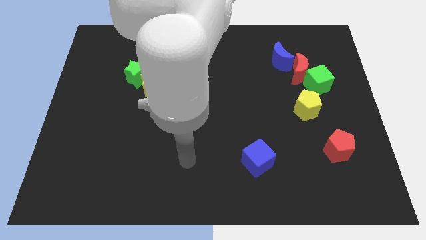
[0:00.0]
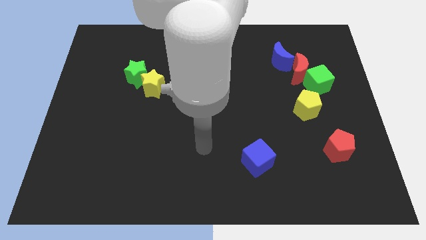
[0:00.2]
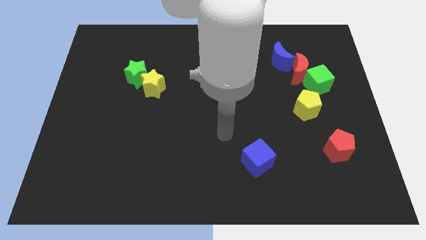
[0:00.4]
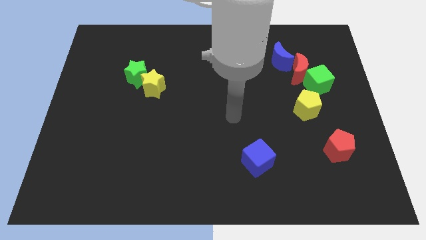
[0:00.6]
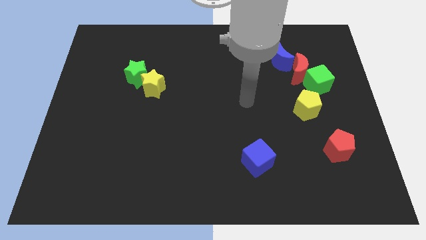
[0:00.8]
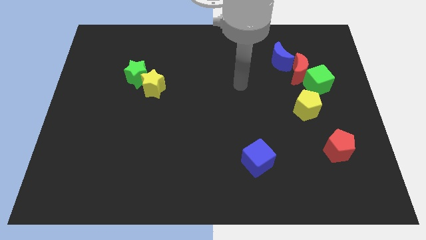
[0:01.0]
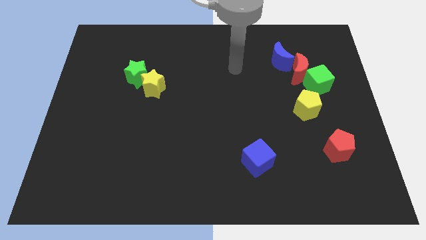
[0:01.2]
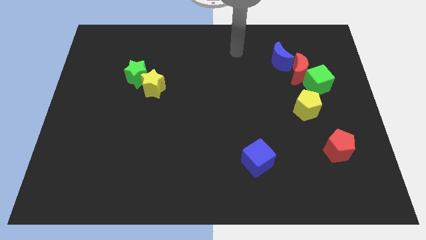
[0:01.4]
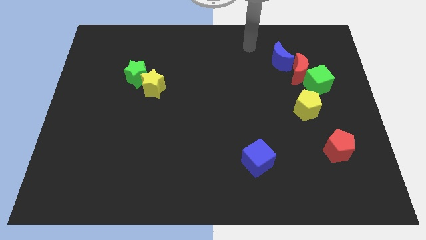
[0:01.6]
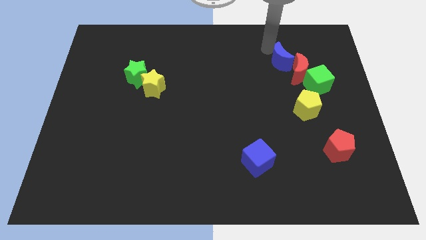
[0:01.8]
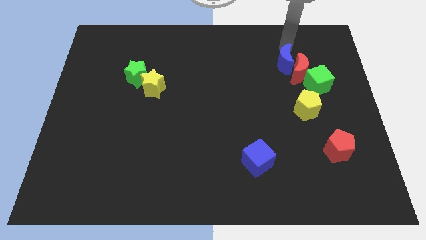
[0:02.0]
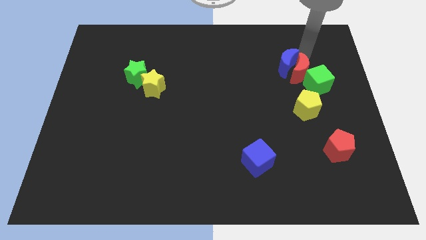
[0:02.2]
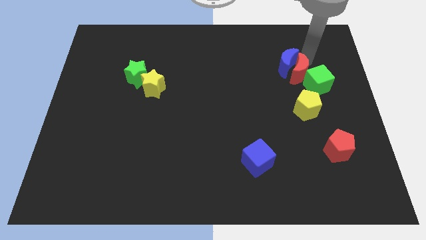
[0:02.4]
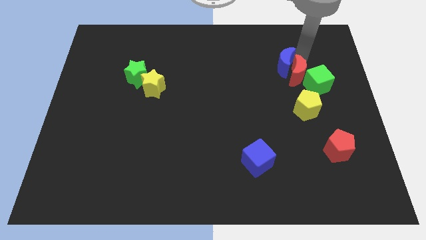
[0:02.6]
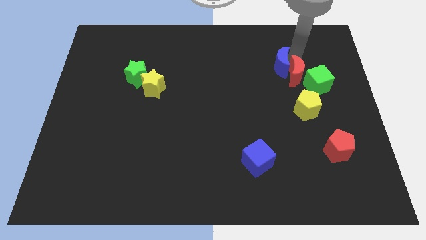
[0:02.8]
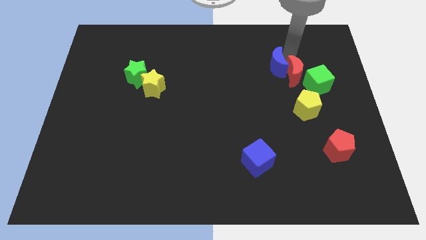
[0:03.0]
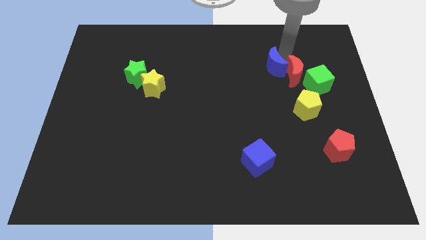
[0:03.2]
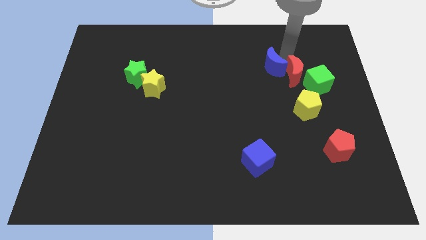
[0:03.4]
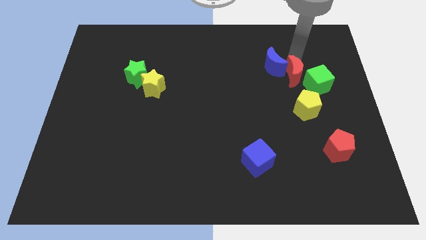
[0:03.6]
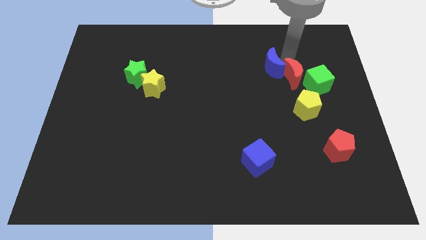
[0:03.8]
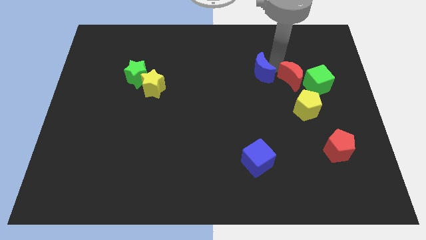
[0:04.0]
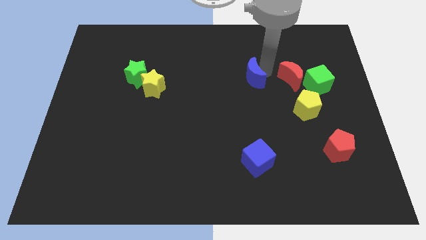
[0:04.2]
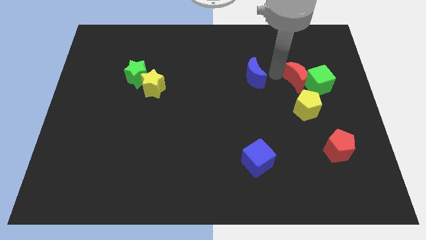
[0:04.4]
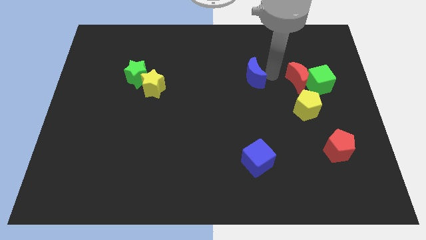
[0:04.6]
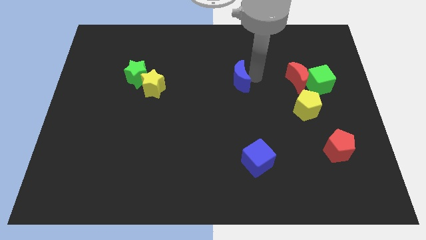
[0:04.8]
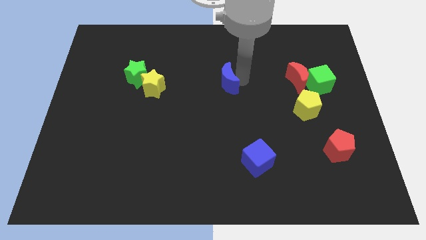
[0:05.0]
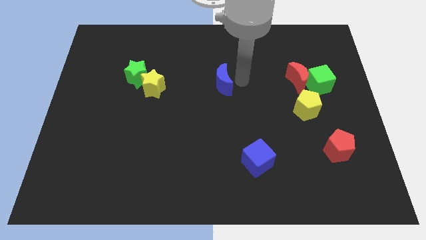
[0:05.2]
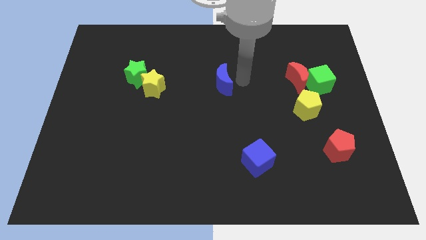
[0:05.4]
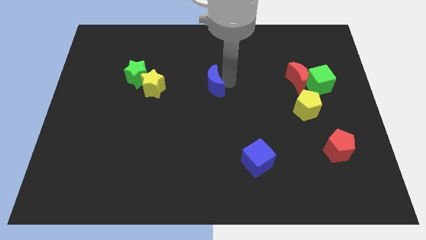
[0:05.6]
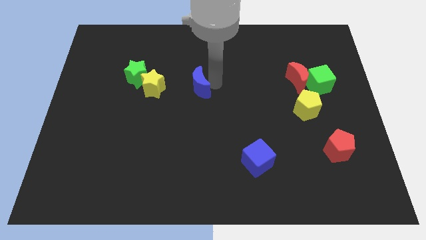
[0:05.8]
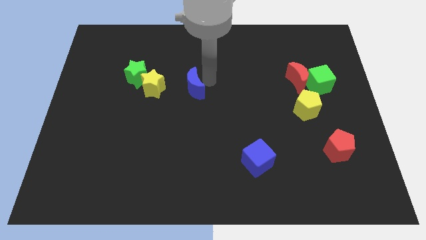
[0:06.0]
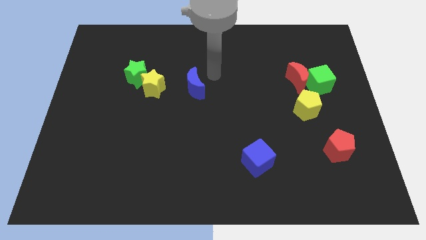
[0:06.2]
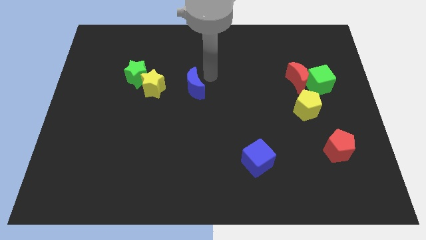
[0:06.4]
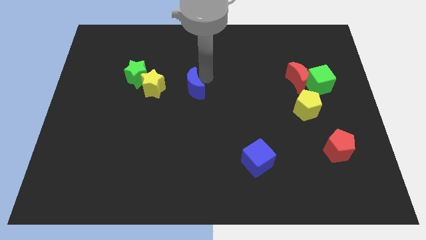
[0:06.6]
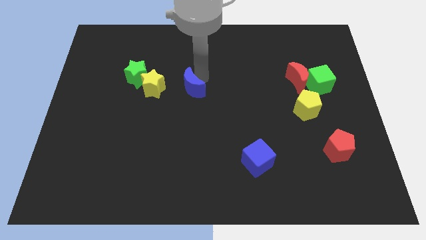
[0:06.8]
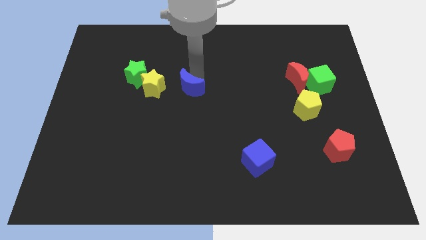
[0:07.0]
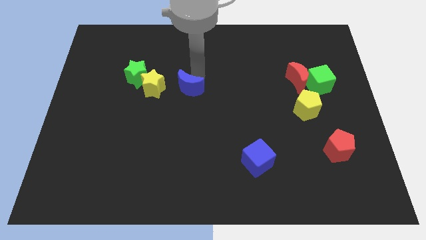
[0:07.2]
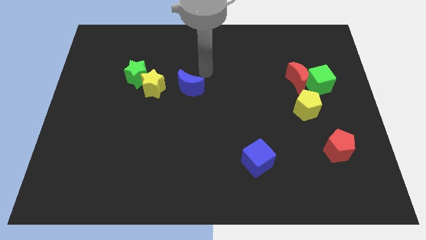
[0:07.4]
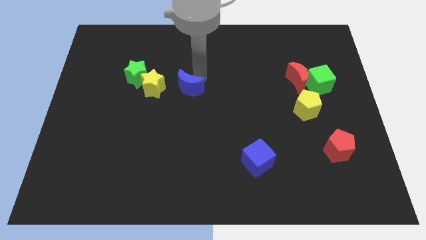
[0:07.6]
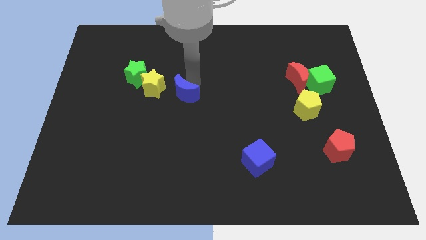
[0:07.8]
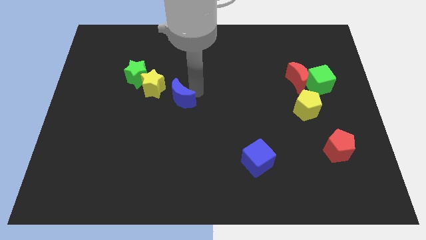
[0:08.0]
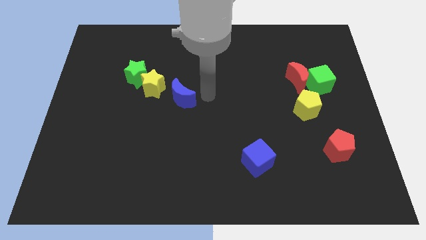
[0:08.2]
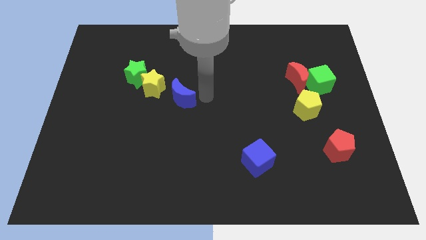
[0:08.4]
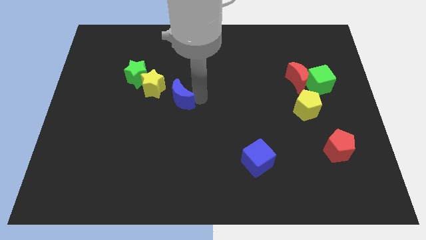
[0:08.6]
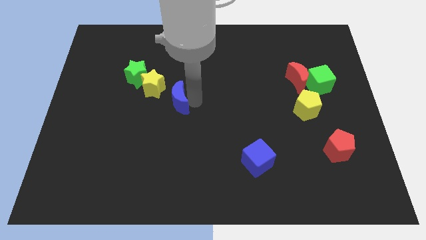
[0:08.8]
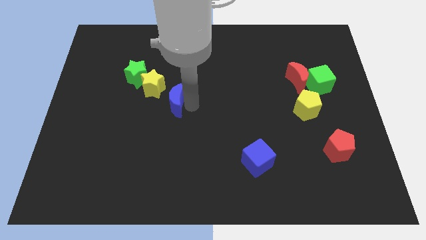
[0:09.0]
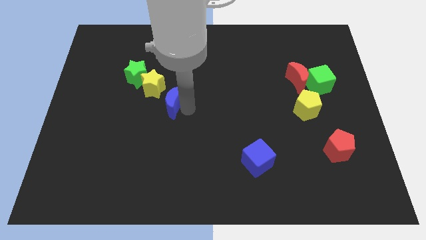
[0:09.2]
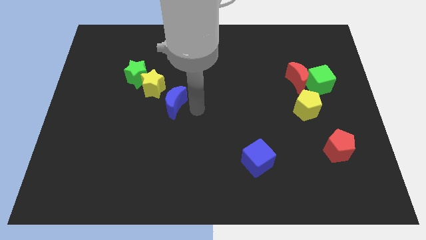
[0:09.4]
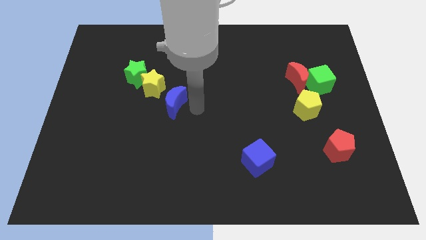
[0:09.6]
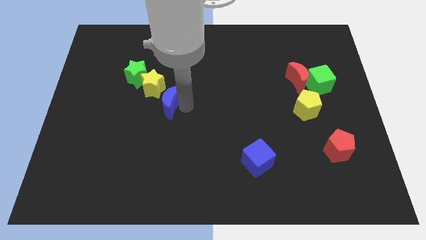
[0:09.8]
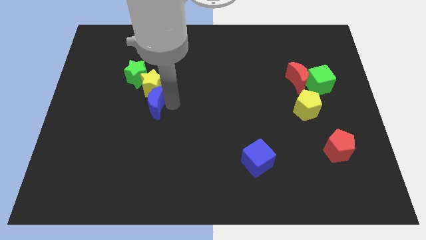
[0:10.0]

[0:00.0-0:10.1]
move the blue moon to the bottom left of the yellow star

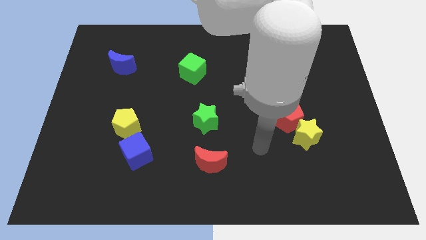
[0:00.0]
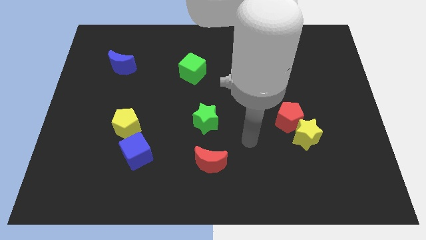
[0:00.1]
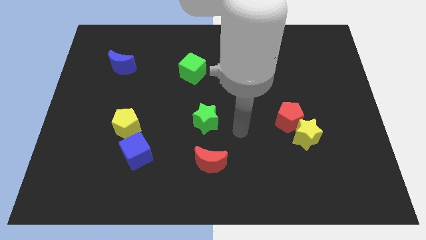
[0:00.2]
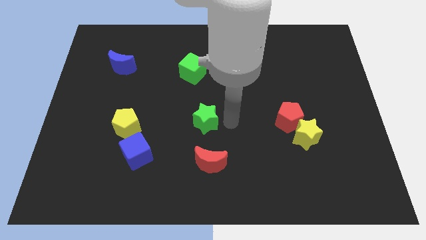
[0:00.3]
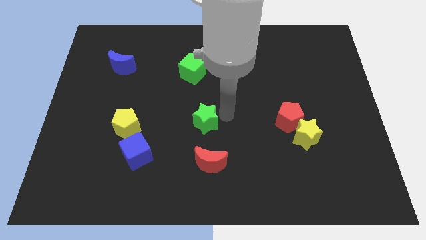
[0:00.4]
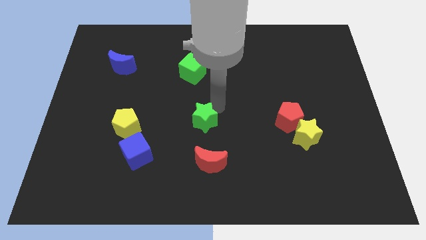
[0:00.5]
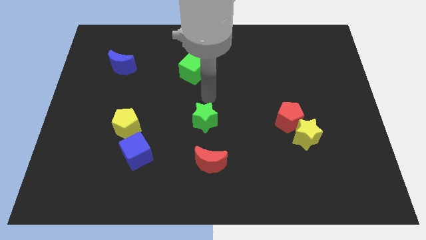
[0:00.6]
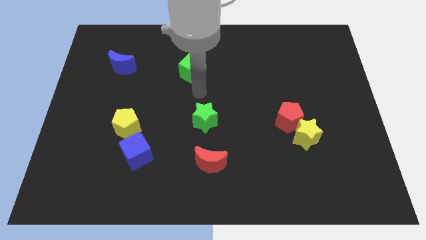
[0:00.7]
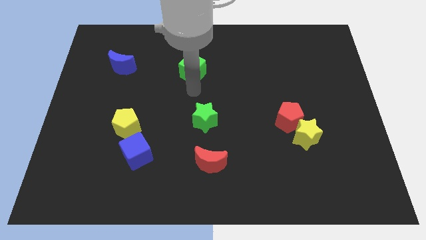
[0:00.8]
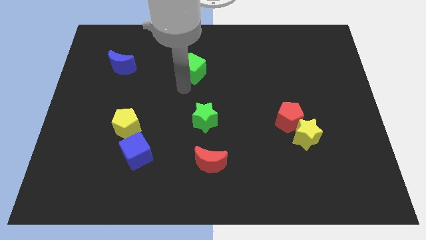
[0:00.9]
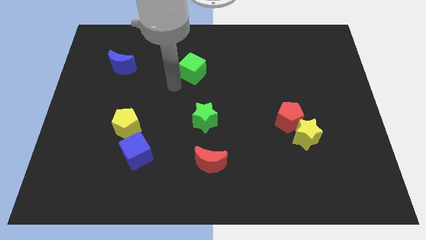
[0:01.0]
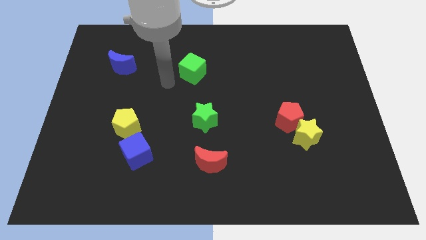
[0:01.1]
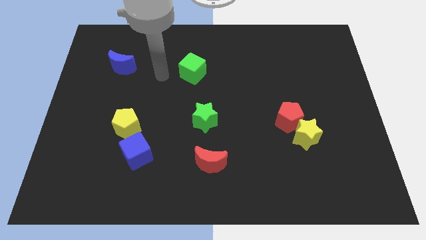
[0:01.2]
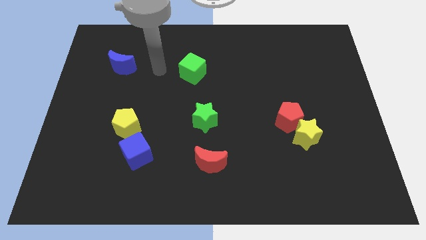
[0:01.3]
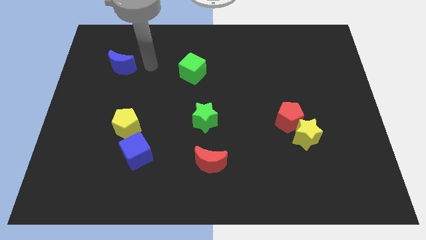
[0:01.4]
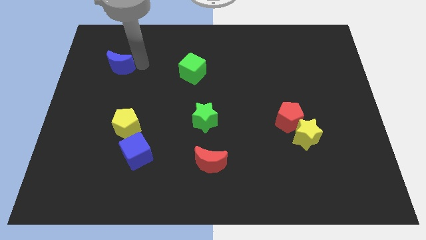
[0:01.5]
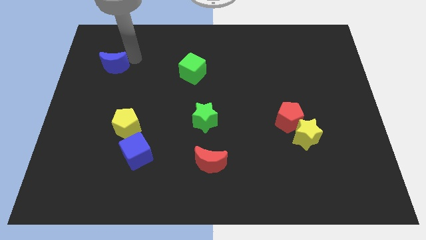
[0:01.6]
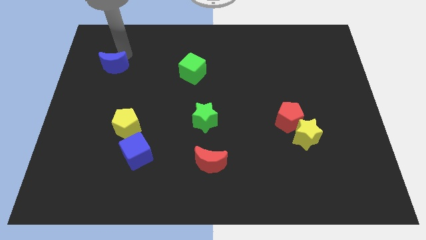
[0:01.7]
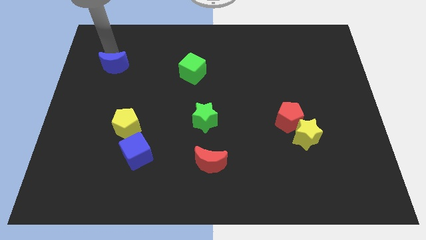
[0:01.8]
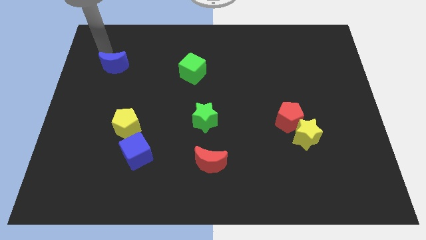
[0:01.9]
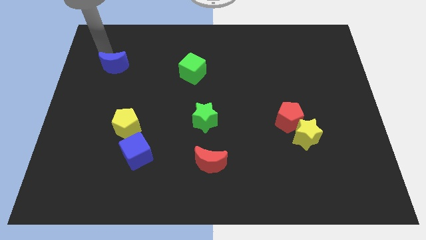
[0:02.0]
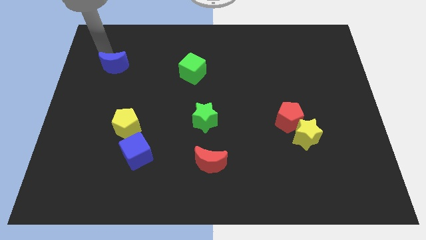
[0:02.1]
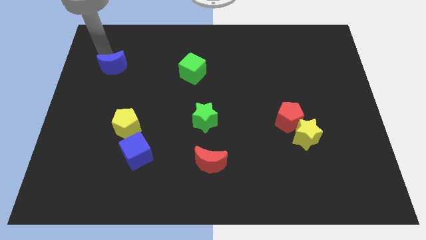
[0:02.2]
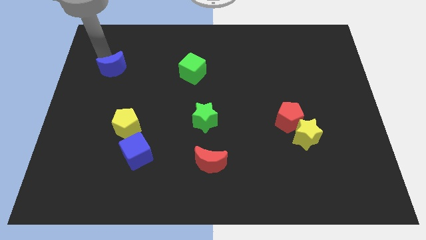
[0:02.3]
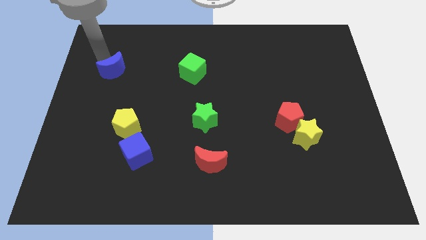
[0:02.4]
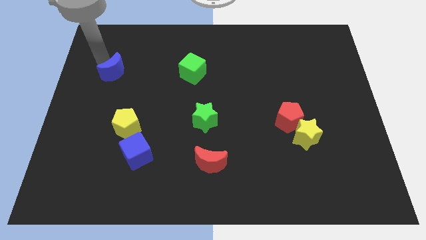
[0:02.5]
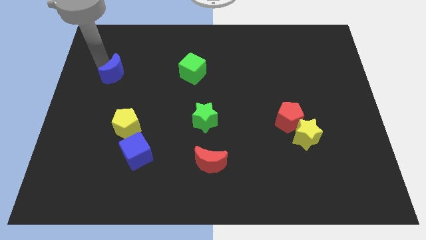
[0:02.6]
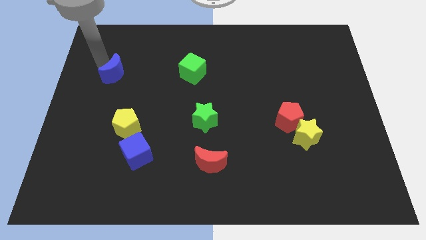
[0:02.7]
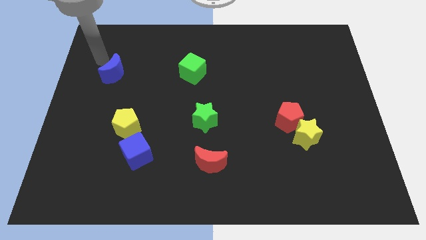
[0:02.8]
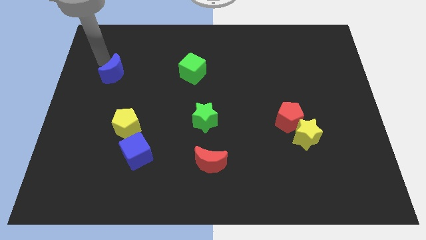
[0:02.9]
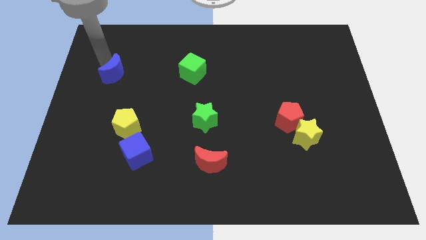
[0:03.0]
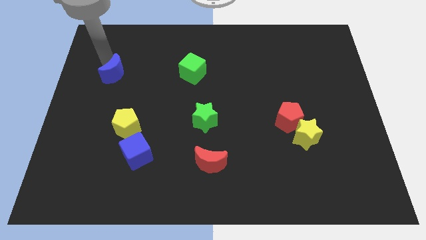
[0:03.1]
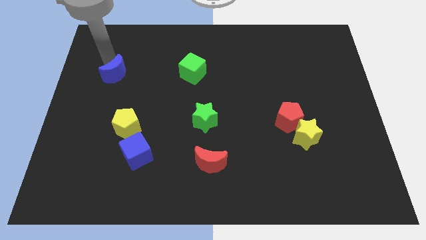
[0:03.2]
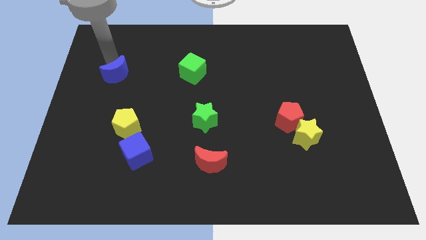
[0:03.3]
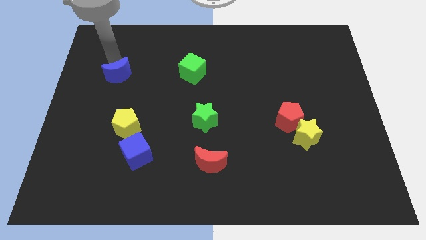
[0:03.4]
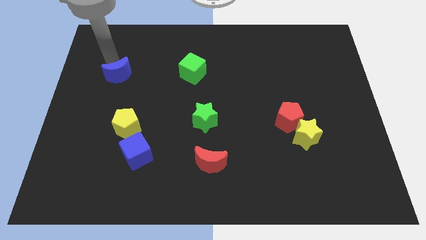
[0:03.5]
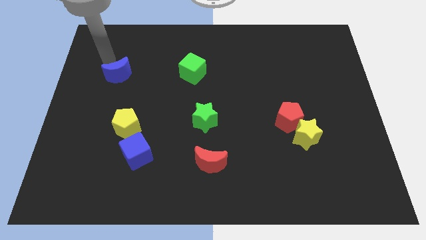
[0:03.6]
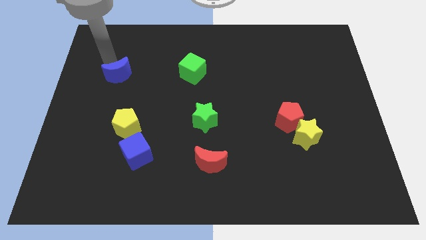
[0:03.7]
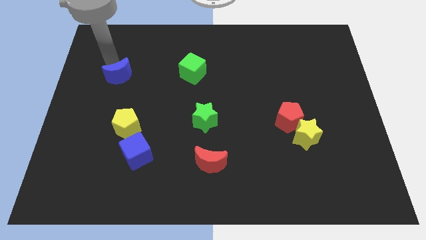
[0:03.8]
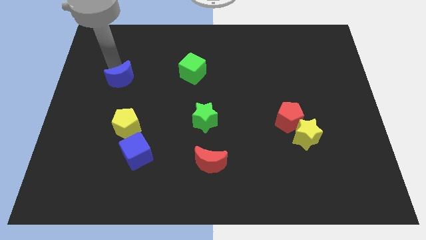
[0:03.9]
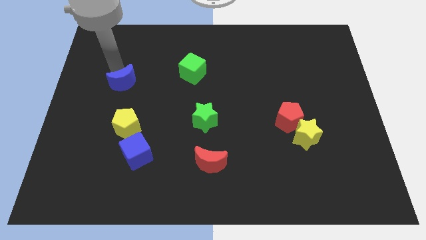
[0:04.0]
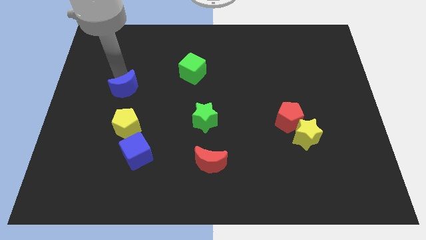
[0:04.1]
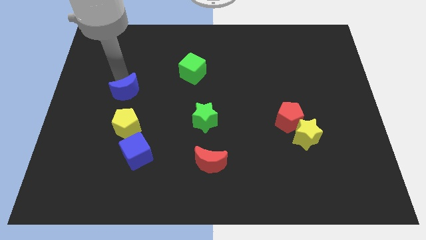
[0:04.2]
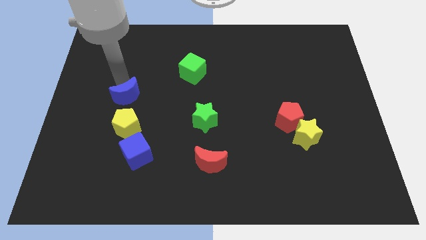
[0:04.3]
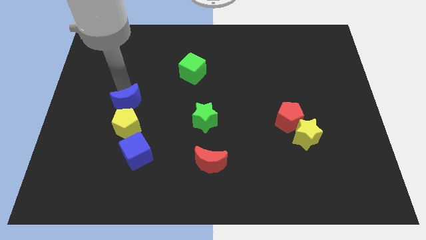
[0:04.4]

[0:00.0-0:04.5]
push the blue moon above the blue cube
